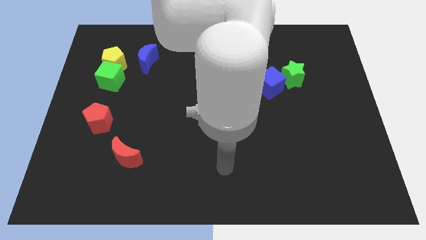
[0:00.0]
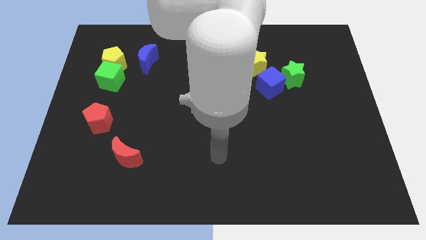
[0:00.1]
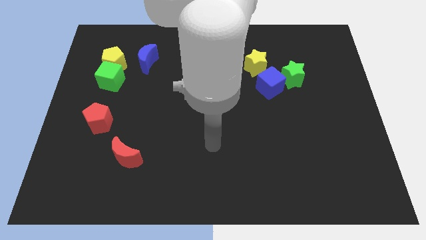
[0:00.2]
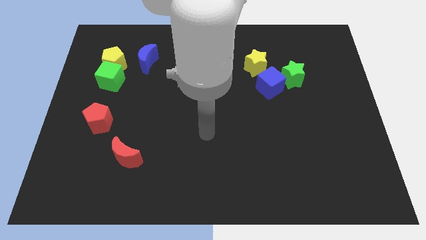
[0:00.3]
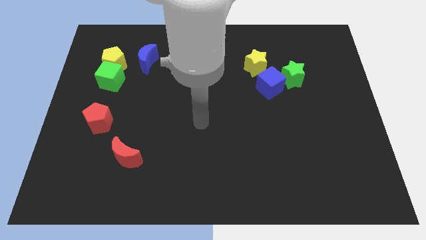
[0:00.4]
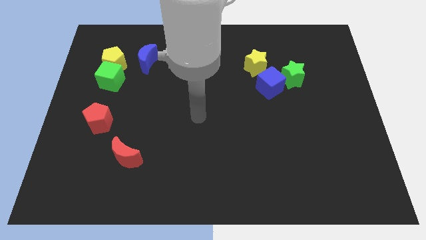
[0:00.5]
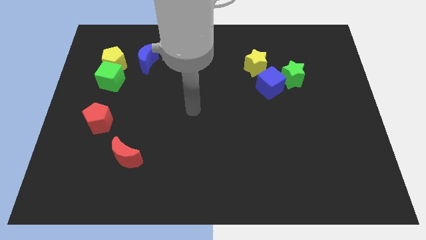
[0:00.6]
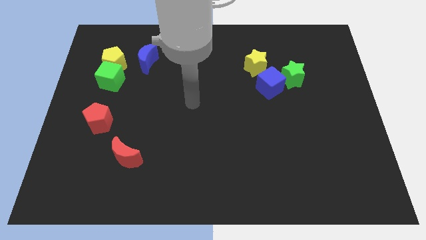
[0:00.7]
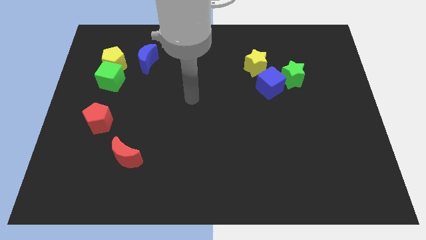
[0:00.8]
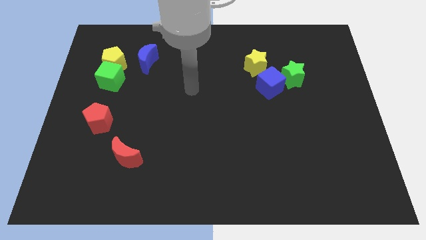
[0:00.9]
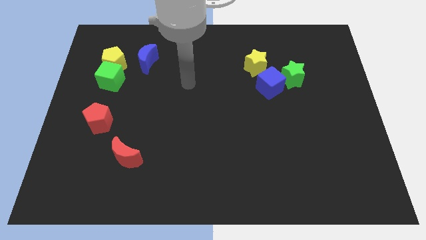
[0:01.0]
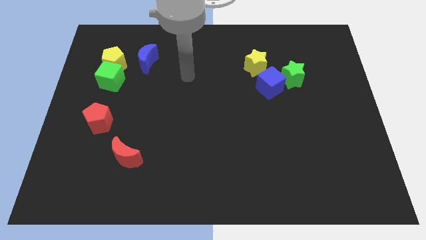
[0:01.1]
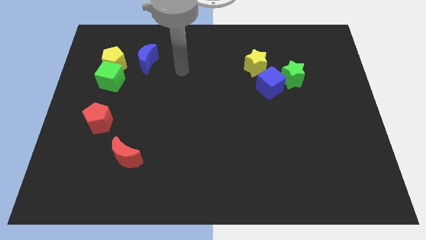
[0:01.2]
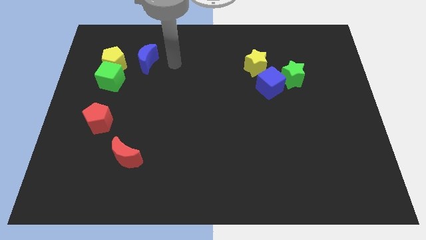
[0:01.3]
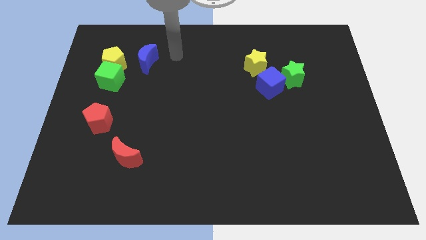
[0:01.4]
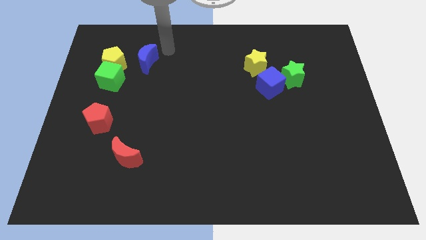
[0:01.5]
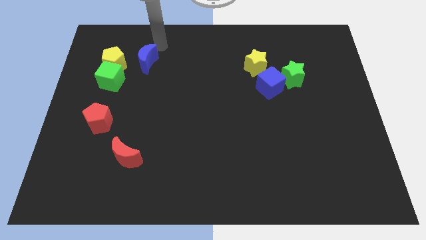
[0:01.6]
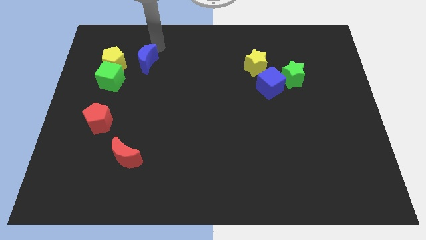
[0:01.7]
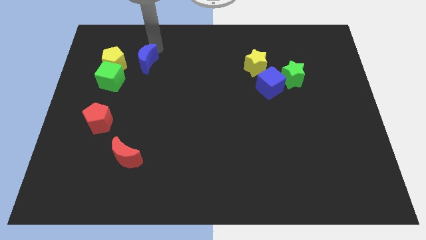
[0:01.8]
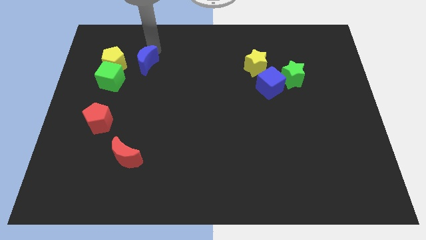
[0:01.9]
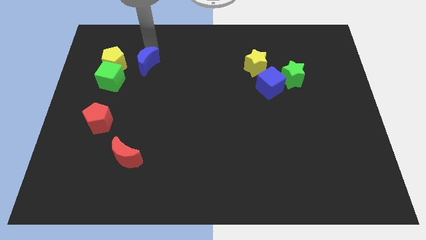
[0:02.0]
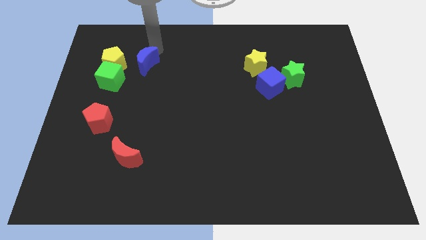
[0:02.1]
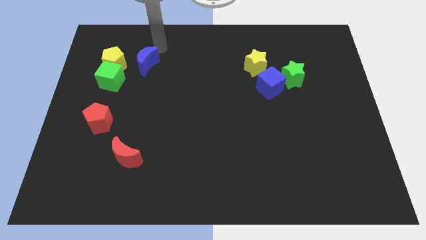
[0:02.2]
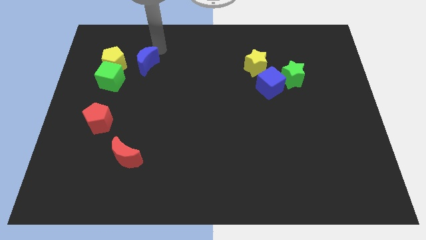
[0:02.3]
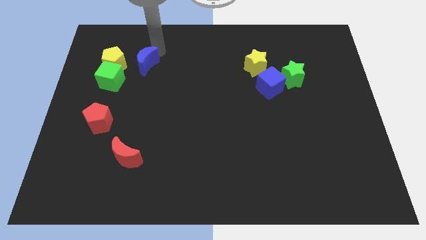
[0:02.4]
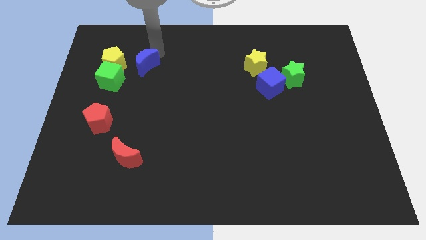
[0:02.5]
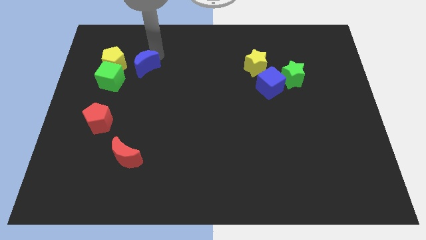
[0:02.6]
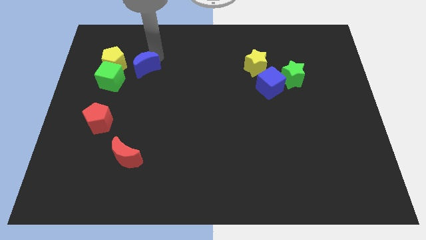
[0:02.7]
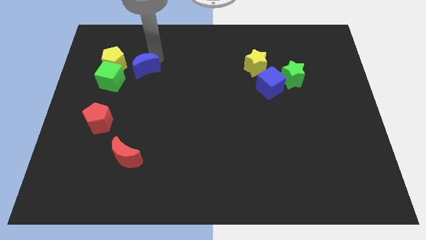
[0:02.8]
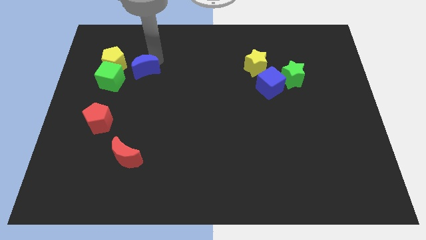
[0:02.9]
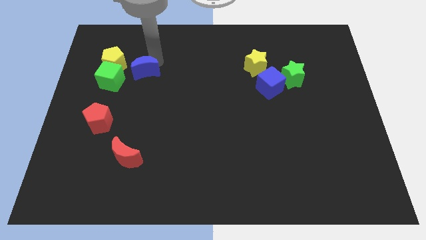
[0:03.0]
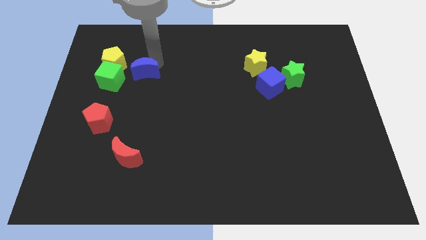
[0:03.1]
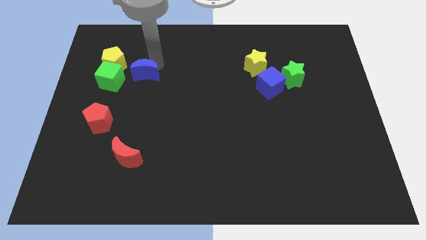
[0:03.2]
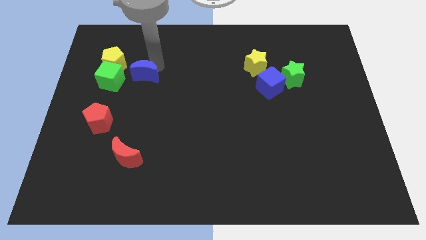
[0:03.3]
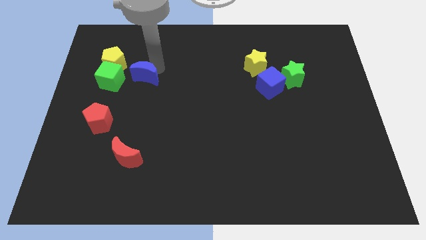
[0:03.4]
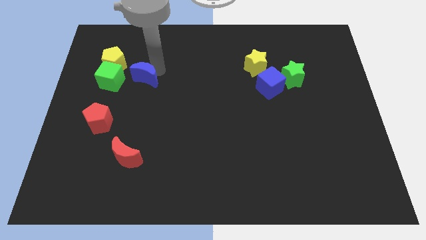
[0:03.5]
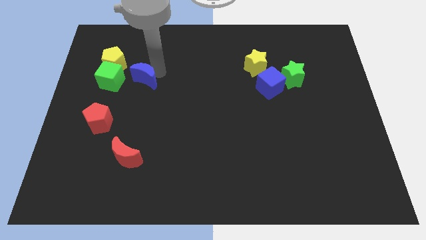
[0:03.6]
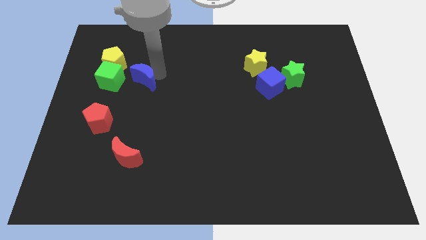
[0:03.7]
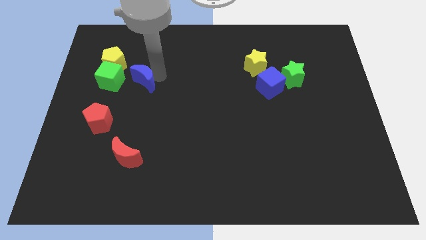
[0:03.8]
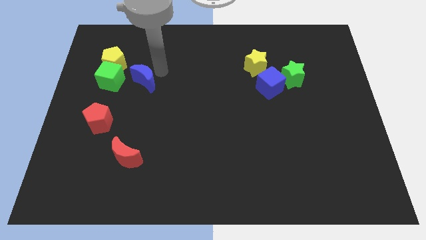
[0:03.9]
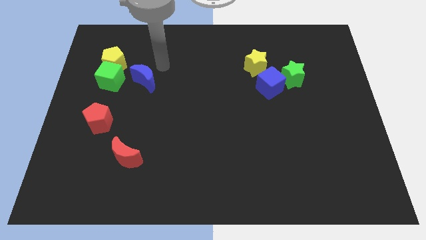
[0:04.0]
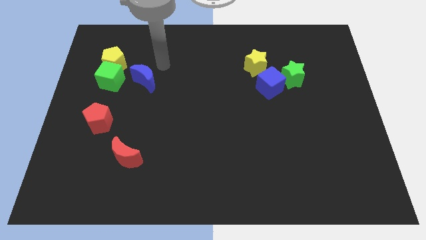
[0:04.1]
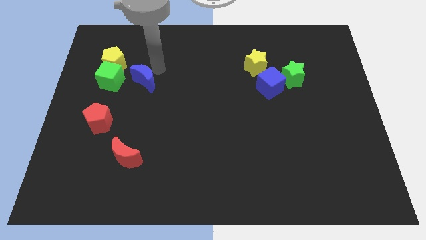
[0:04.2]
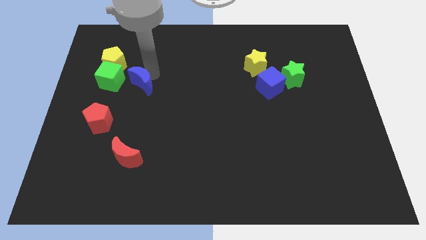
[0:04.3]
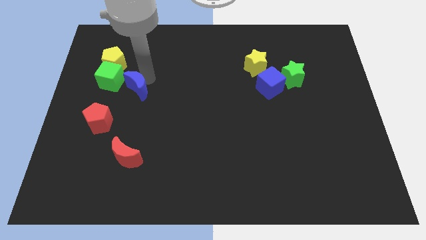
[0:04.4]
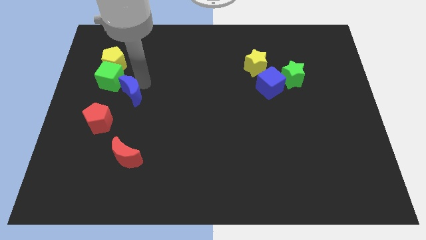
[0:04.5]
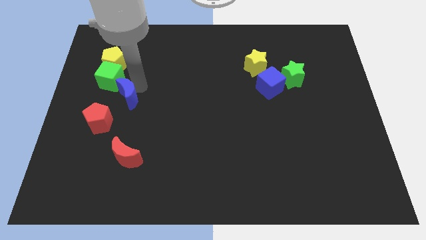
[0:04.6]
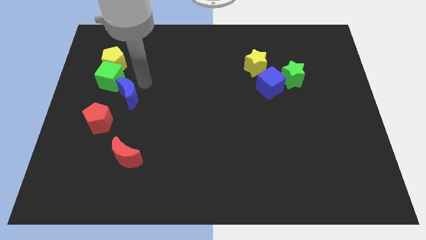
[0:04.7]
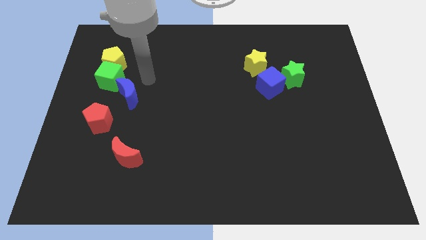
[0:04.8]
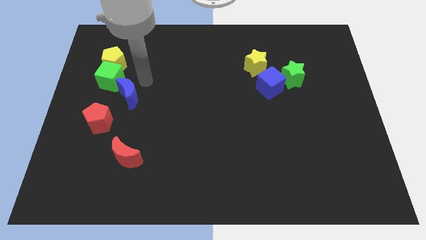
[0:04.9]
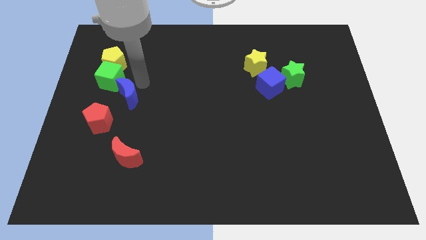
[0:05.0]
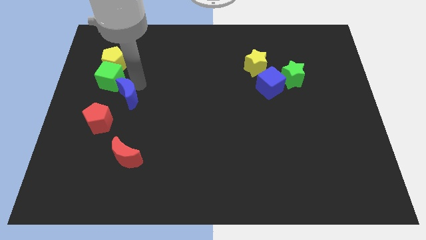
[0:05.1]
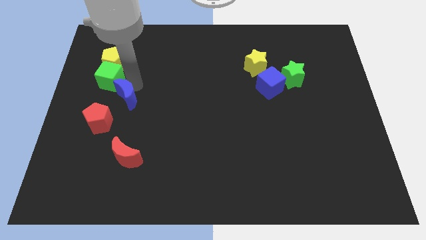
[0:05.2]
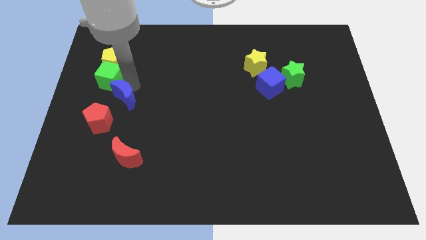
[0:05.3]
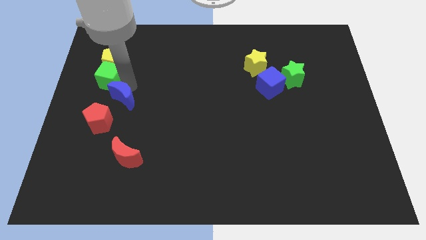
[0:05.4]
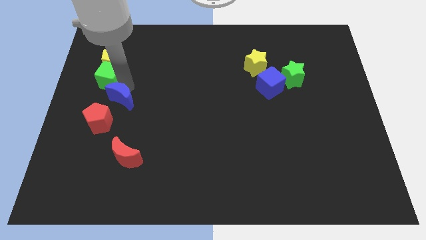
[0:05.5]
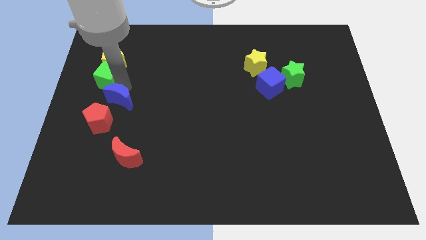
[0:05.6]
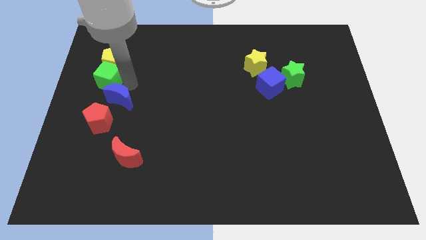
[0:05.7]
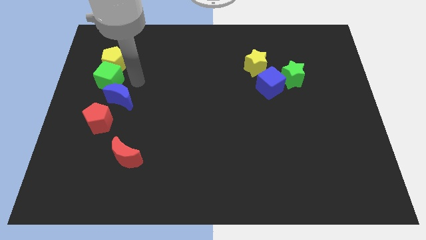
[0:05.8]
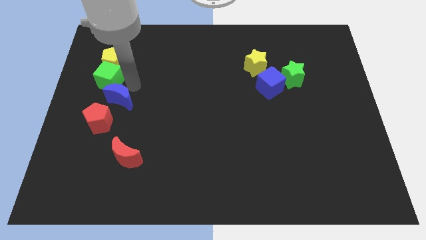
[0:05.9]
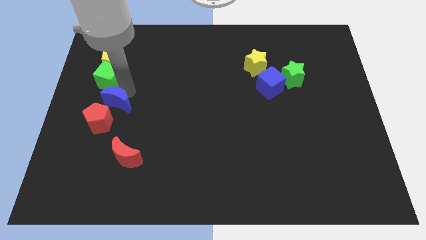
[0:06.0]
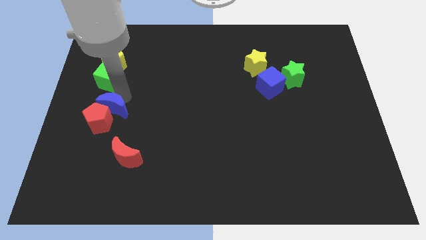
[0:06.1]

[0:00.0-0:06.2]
slide the blue moon next to the red pentagon

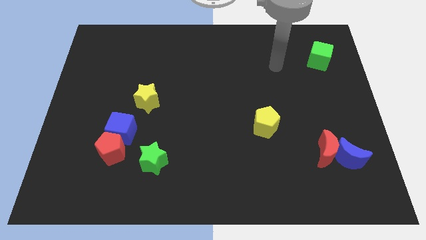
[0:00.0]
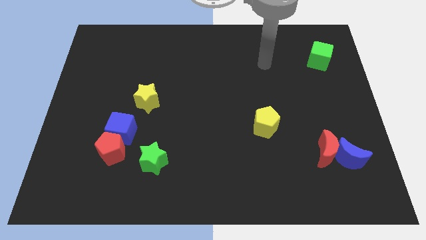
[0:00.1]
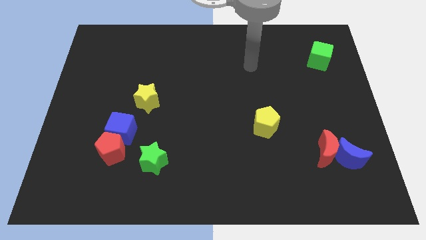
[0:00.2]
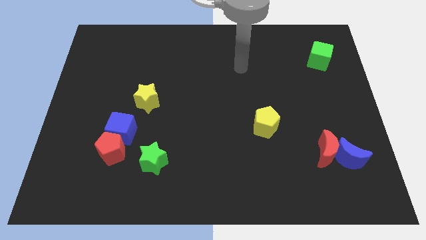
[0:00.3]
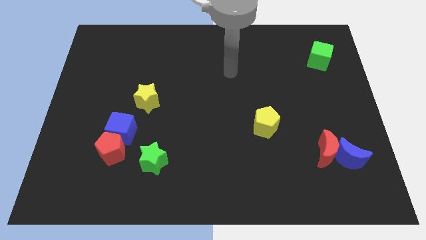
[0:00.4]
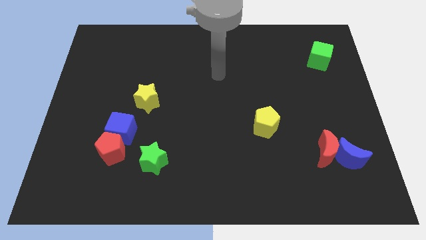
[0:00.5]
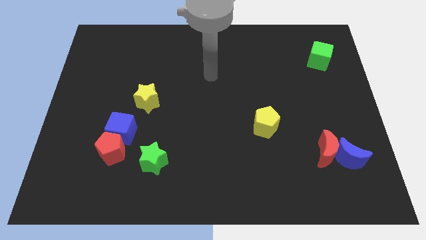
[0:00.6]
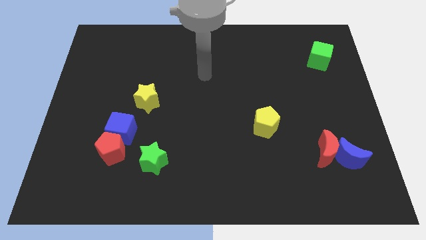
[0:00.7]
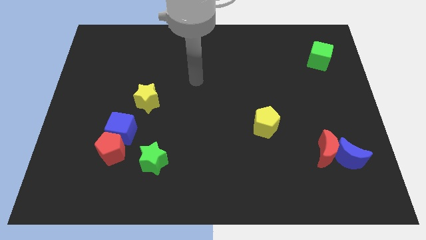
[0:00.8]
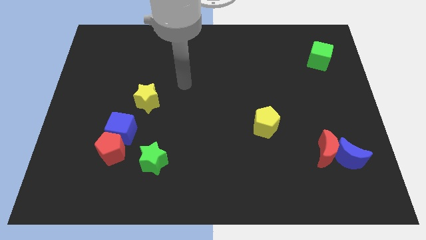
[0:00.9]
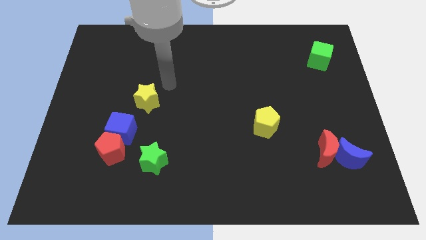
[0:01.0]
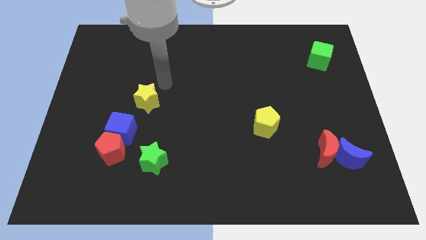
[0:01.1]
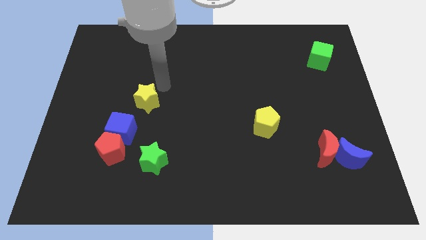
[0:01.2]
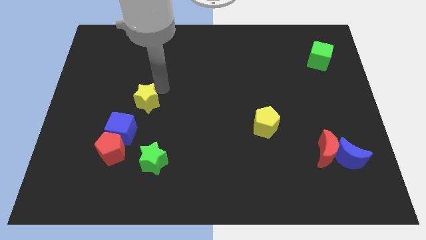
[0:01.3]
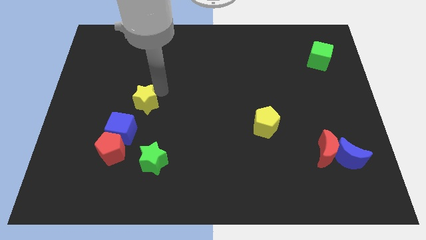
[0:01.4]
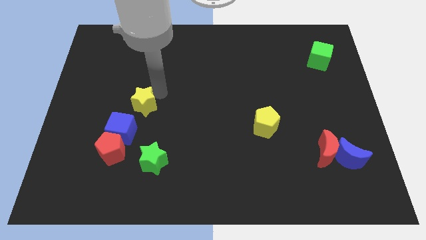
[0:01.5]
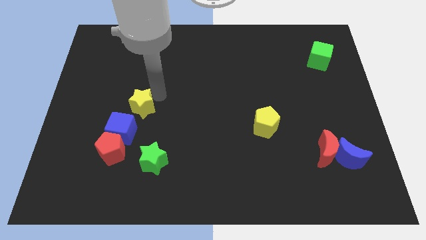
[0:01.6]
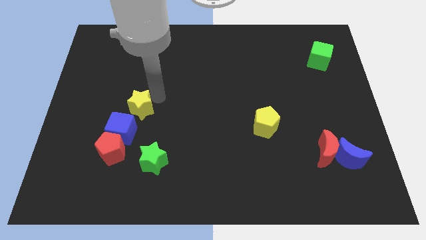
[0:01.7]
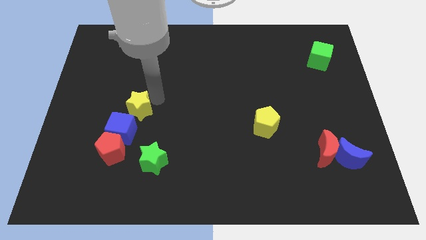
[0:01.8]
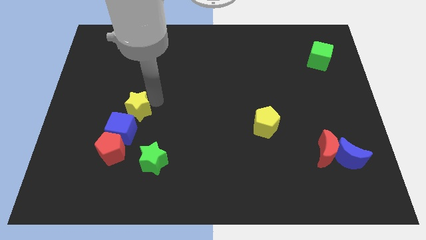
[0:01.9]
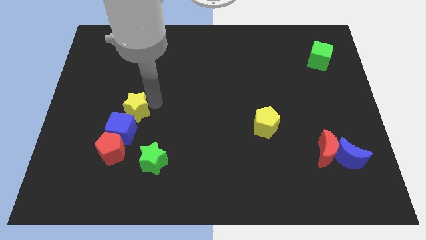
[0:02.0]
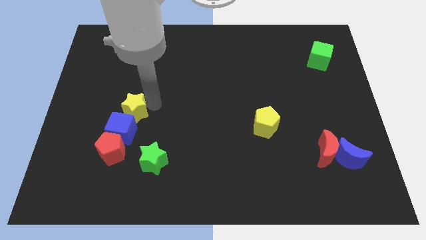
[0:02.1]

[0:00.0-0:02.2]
slide the yellow star towards the blue cube
